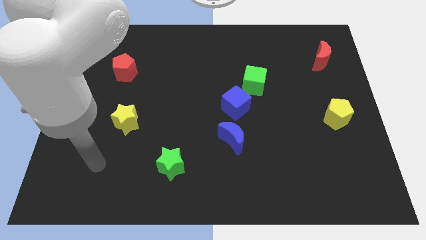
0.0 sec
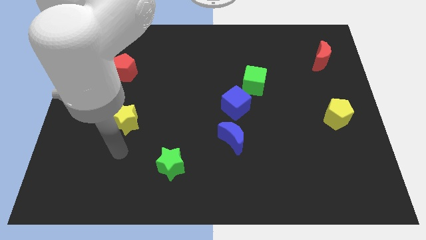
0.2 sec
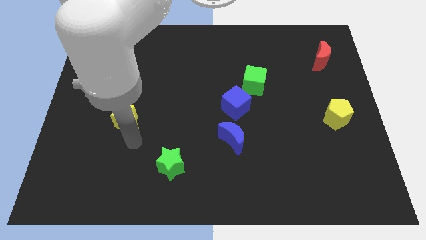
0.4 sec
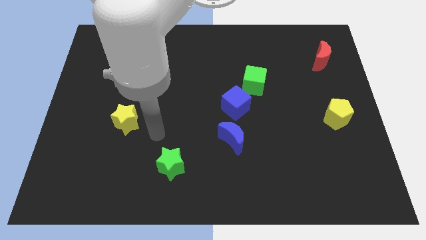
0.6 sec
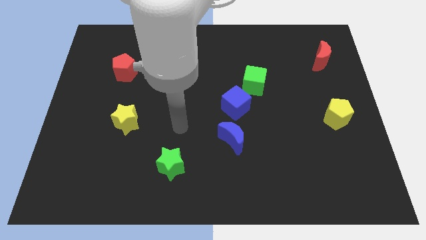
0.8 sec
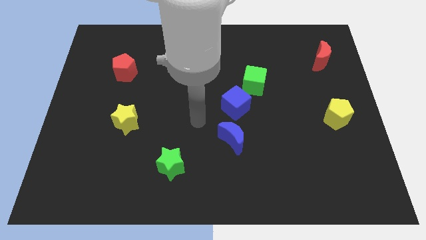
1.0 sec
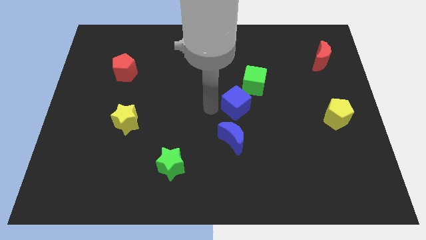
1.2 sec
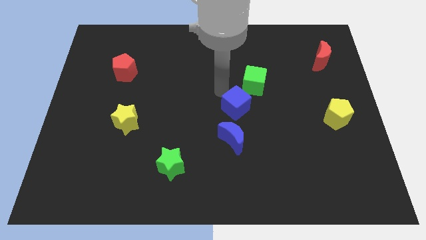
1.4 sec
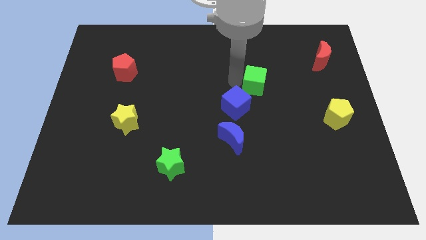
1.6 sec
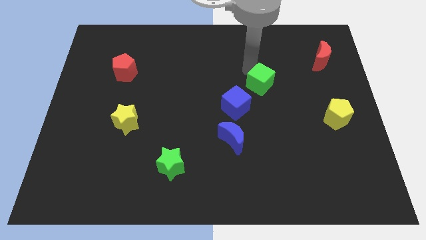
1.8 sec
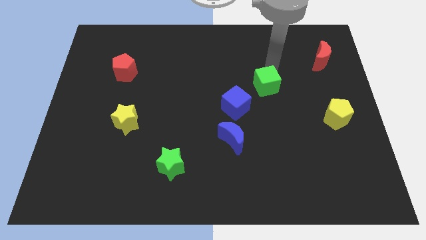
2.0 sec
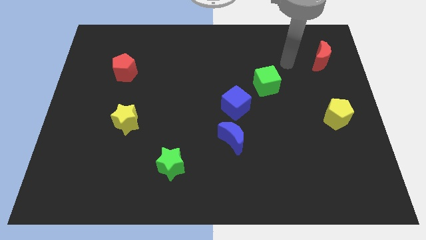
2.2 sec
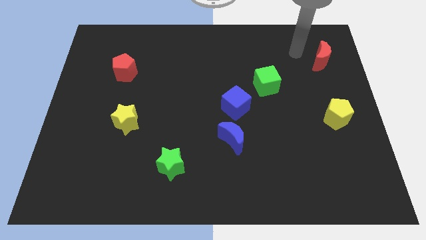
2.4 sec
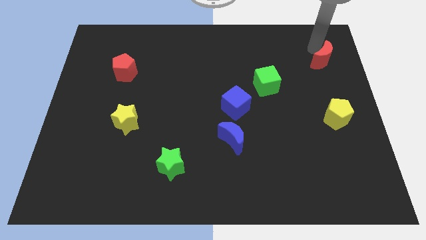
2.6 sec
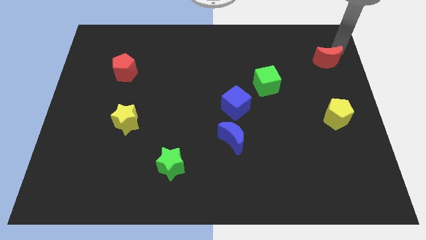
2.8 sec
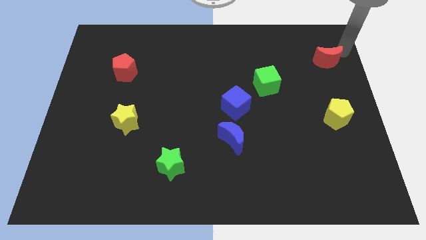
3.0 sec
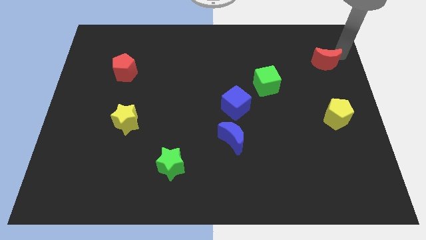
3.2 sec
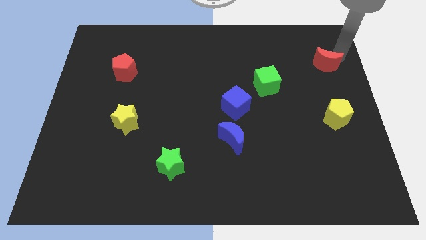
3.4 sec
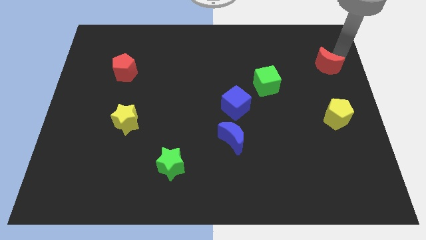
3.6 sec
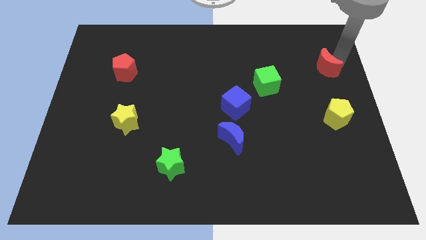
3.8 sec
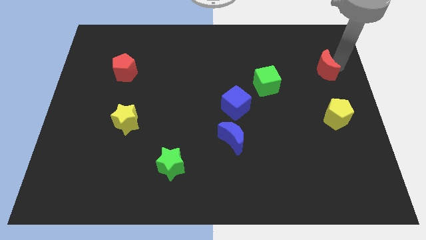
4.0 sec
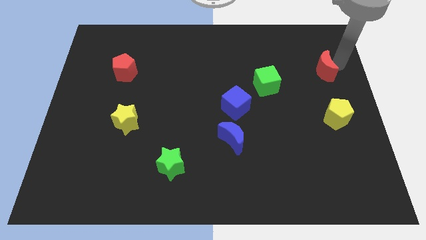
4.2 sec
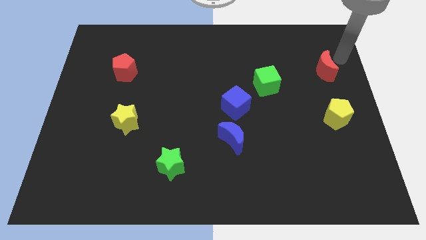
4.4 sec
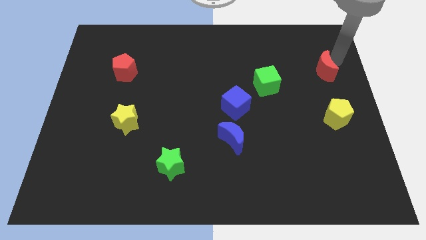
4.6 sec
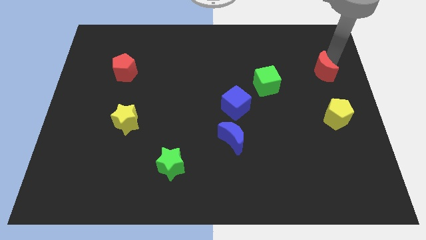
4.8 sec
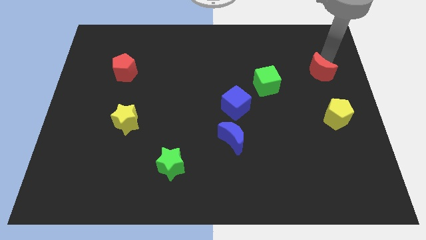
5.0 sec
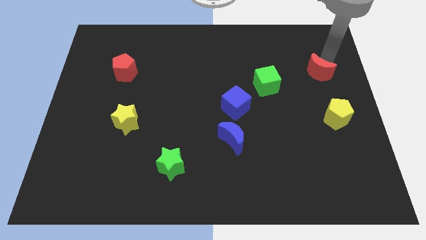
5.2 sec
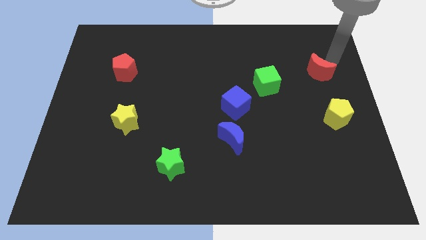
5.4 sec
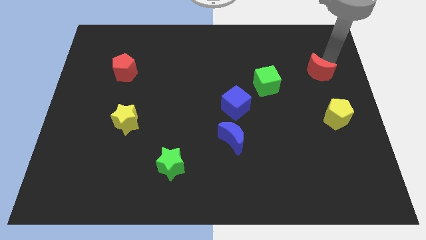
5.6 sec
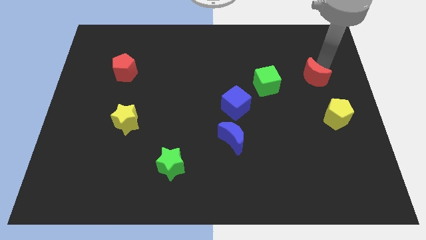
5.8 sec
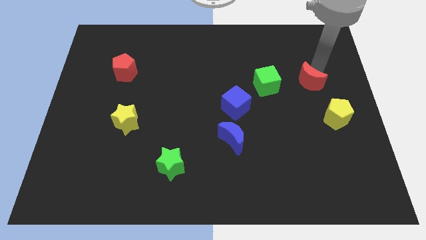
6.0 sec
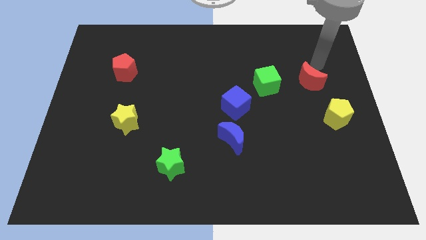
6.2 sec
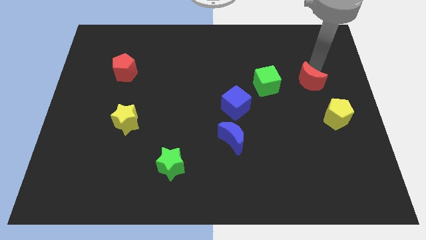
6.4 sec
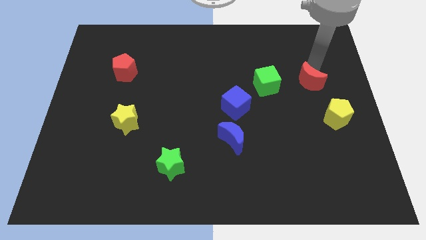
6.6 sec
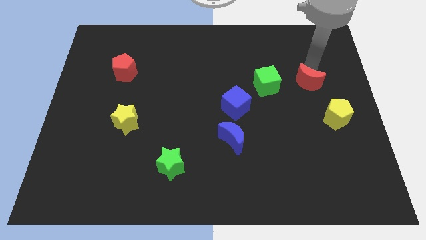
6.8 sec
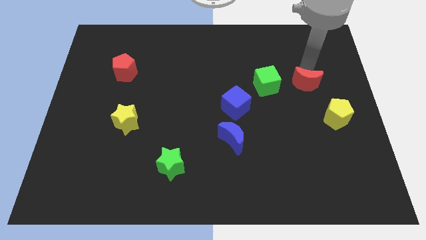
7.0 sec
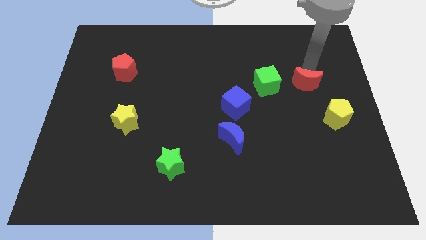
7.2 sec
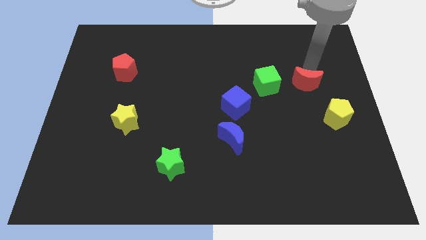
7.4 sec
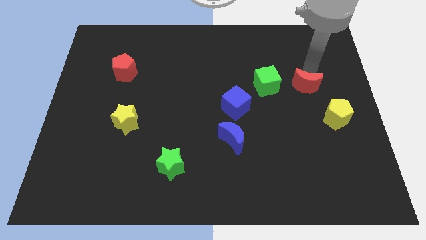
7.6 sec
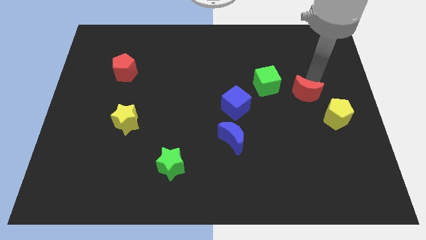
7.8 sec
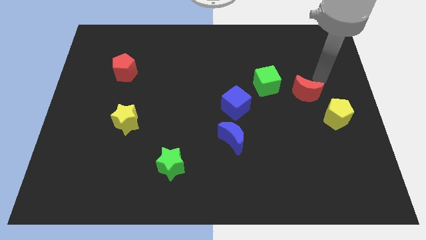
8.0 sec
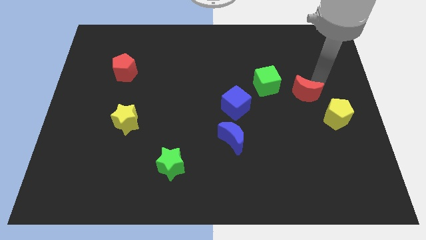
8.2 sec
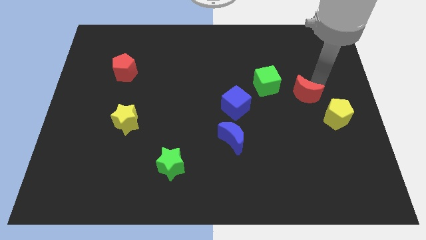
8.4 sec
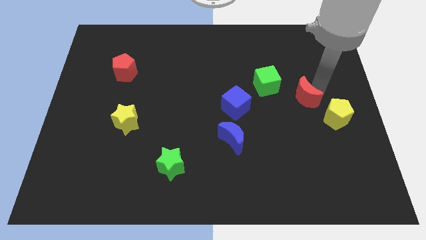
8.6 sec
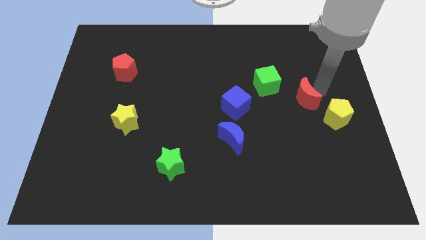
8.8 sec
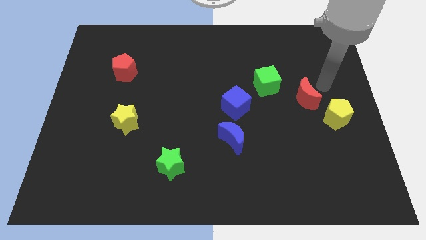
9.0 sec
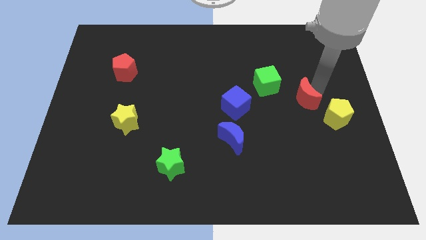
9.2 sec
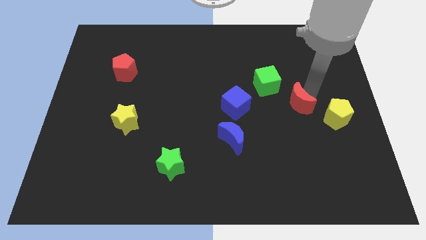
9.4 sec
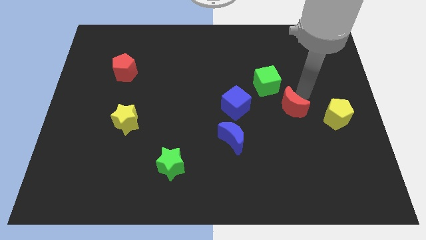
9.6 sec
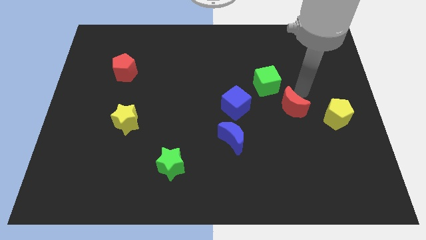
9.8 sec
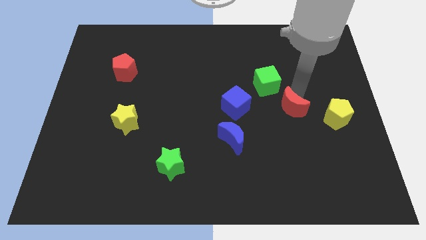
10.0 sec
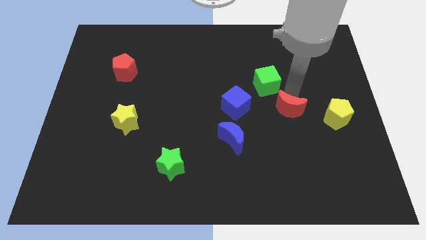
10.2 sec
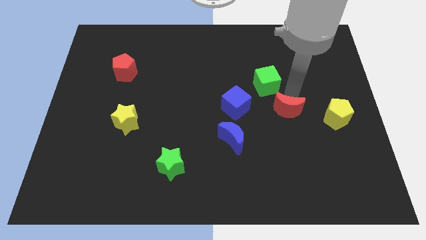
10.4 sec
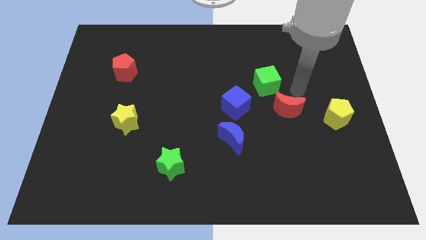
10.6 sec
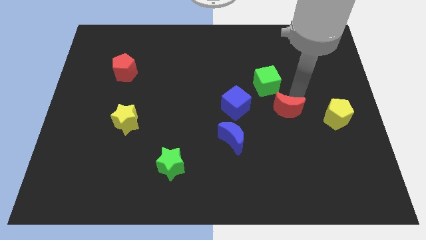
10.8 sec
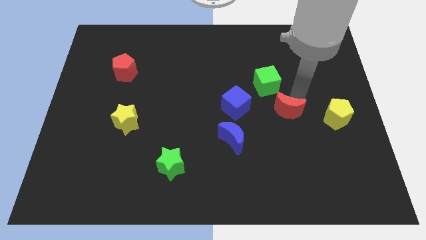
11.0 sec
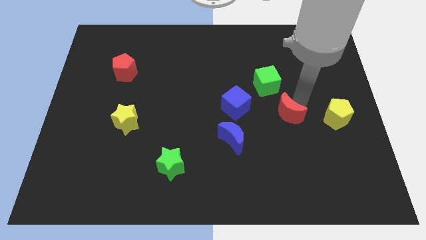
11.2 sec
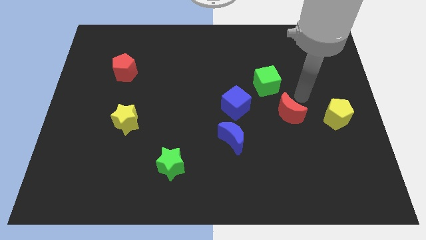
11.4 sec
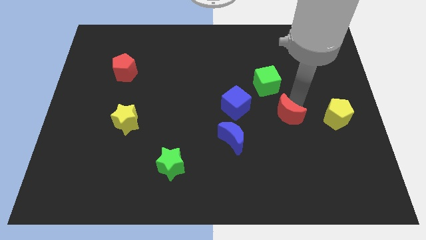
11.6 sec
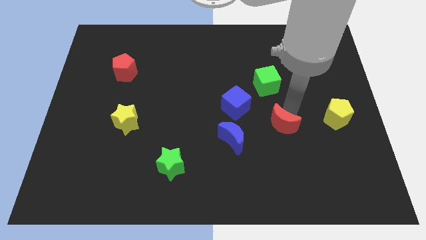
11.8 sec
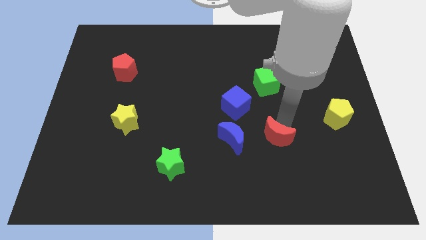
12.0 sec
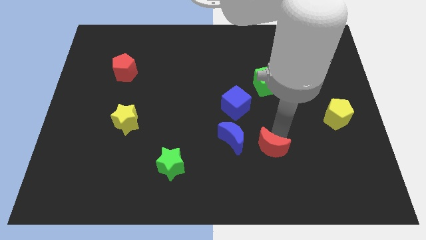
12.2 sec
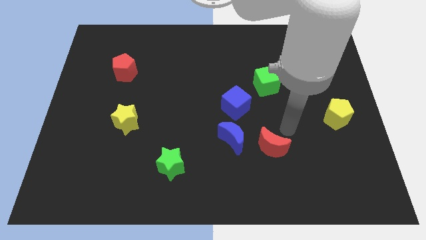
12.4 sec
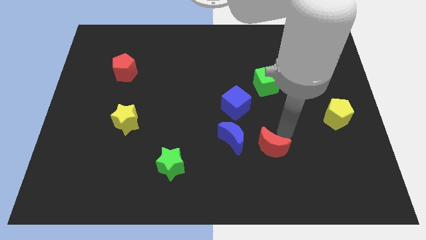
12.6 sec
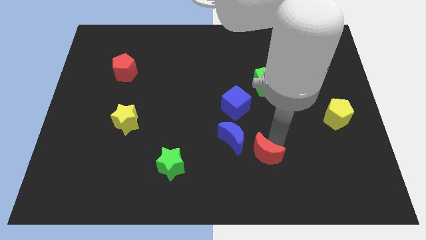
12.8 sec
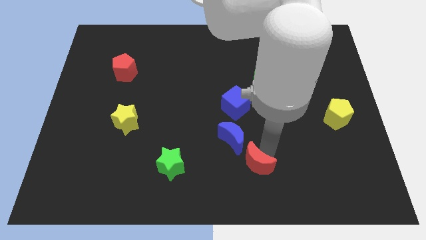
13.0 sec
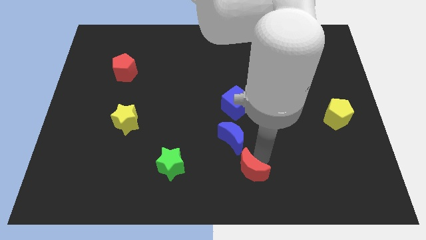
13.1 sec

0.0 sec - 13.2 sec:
push the red moon to the bottom
